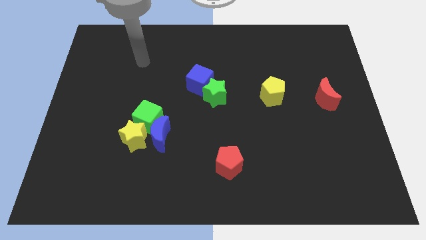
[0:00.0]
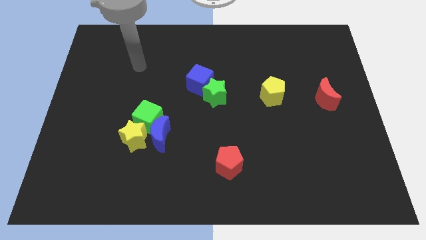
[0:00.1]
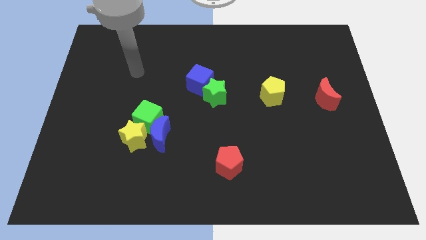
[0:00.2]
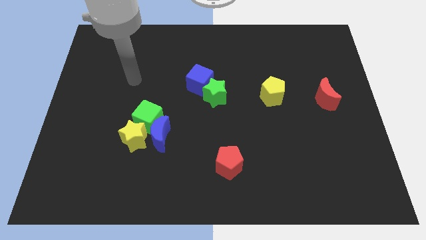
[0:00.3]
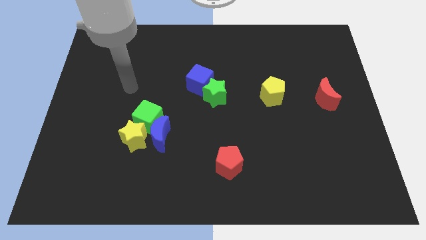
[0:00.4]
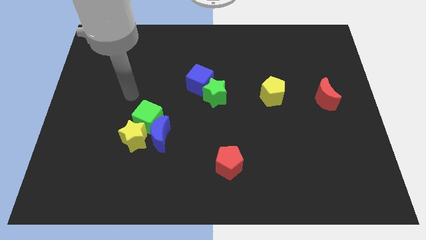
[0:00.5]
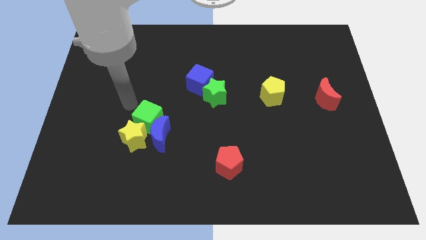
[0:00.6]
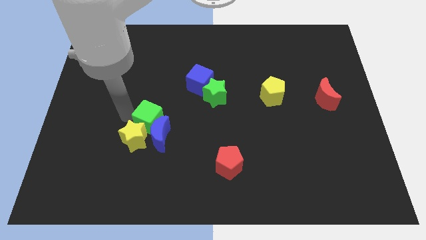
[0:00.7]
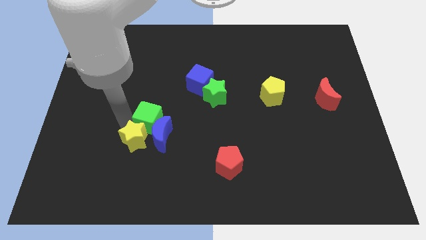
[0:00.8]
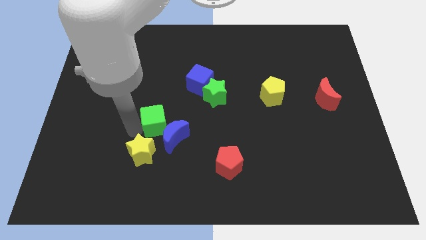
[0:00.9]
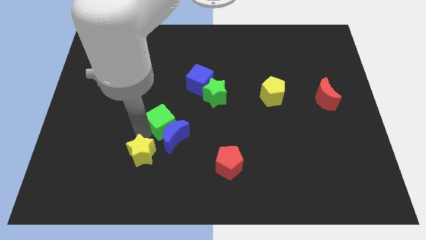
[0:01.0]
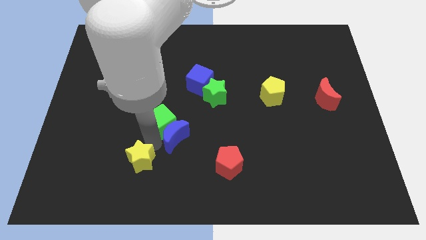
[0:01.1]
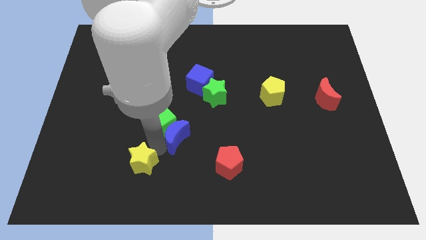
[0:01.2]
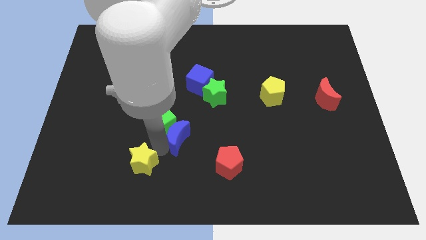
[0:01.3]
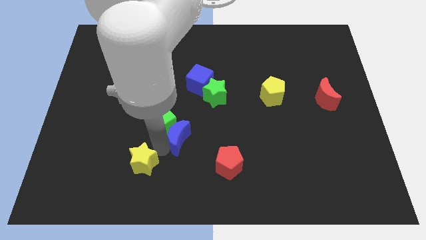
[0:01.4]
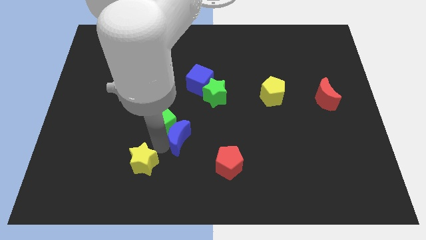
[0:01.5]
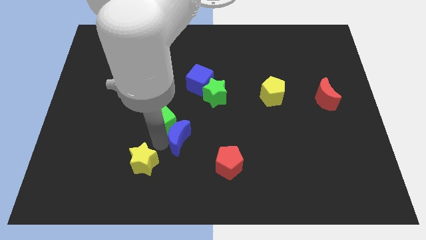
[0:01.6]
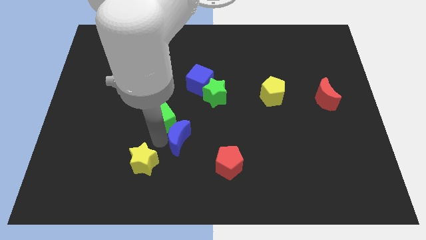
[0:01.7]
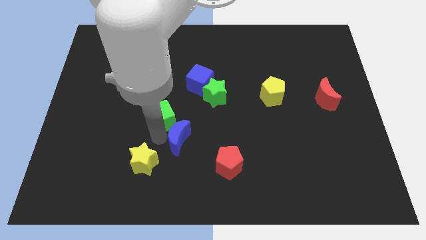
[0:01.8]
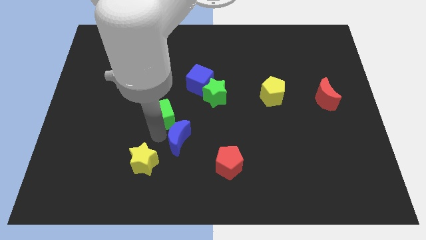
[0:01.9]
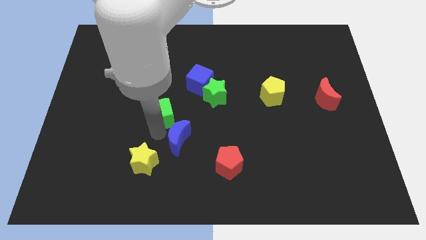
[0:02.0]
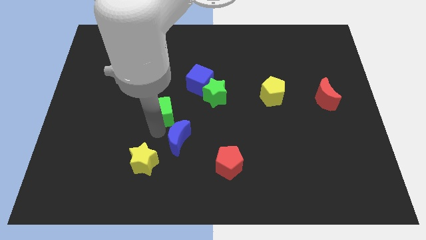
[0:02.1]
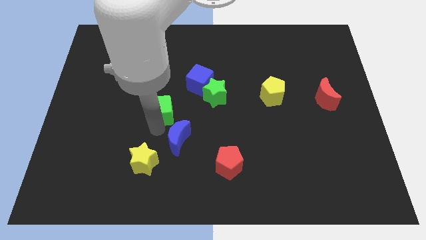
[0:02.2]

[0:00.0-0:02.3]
move the green cube away from the blue moon and yellow star

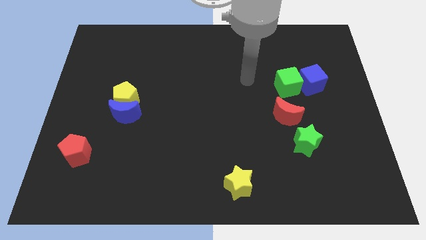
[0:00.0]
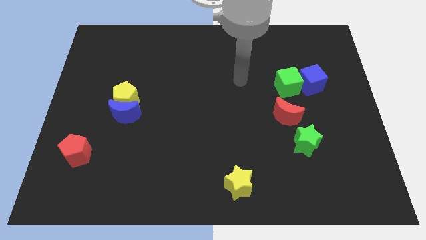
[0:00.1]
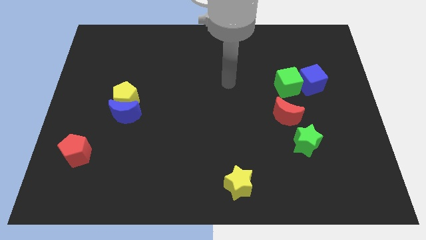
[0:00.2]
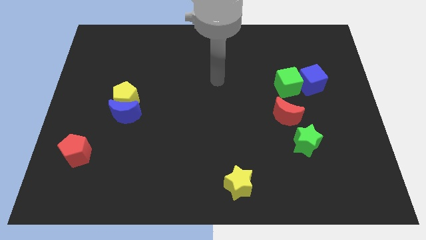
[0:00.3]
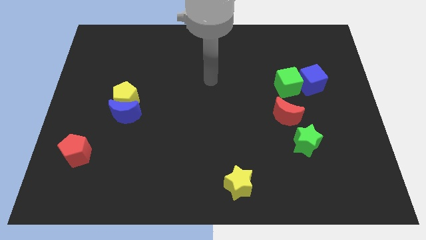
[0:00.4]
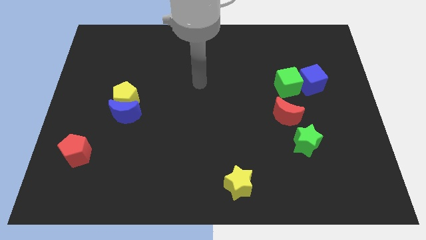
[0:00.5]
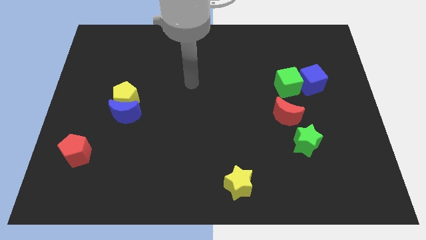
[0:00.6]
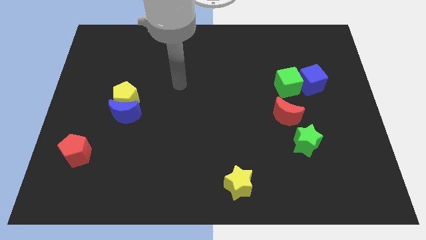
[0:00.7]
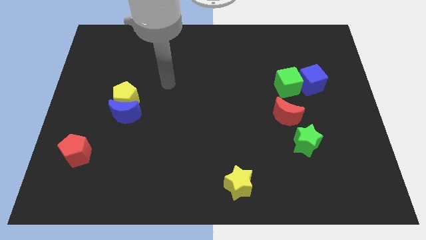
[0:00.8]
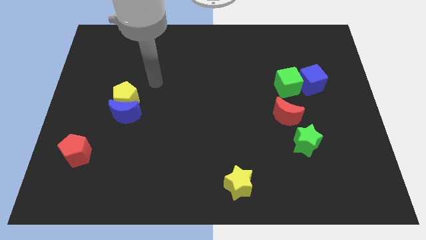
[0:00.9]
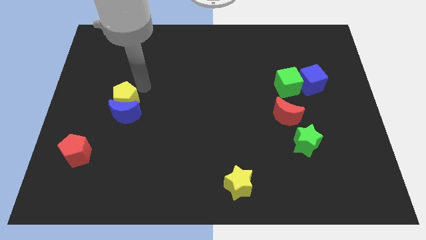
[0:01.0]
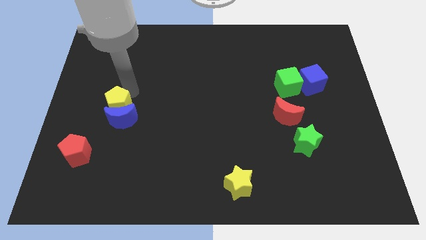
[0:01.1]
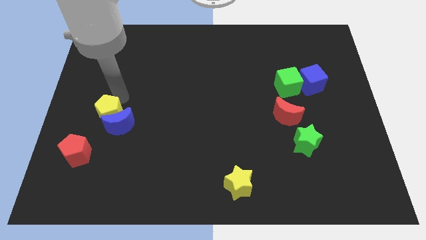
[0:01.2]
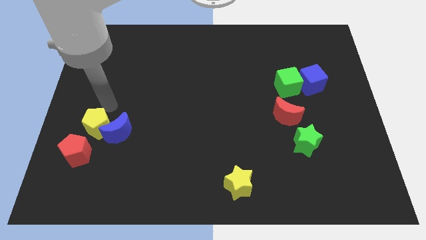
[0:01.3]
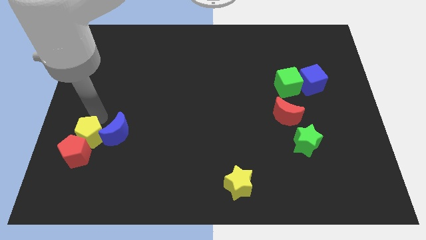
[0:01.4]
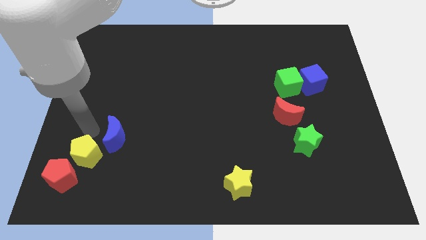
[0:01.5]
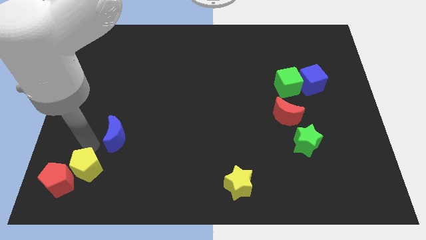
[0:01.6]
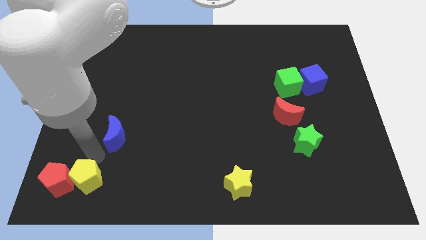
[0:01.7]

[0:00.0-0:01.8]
move the blue moon away from the yellow pentagon

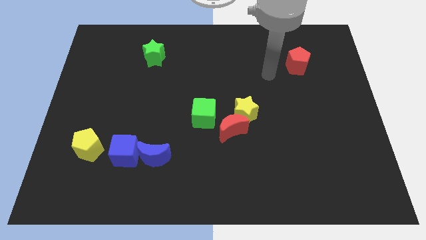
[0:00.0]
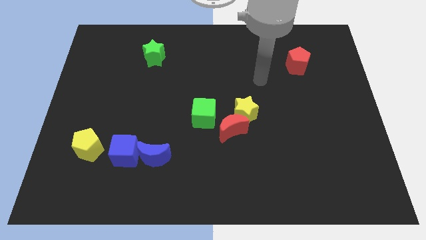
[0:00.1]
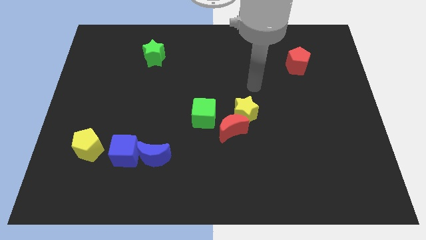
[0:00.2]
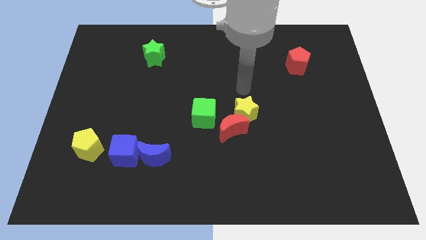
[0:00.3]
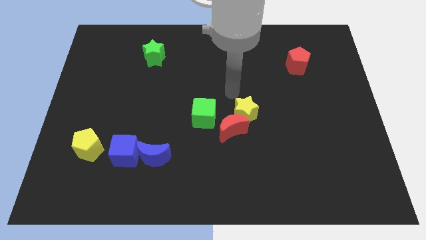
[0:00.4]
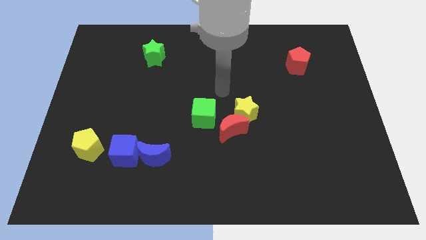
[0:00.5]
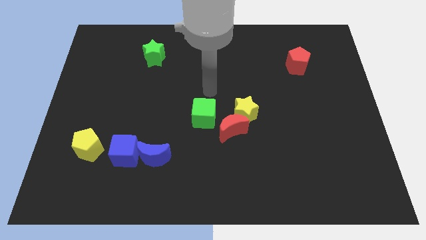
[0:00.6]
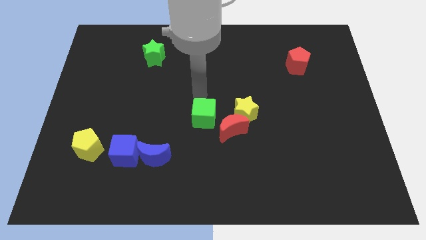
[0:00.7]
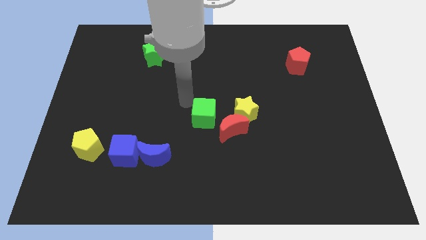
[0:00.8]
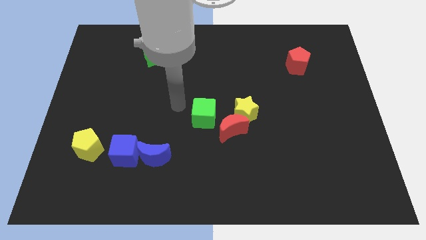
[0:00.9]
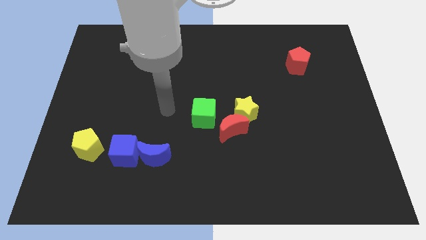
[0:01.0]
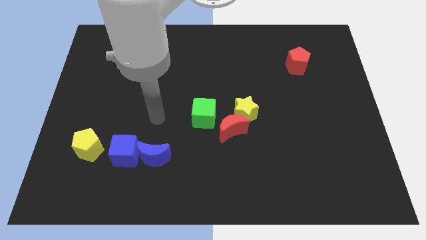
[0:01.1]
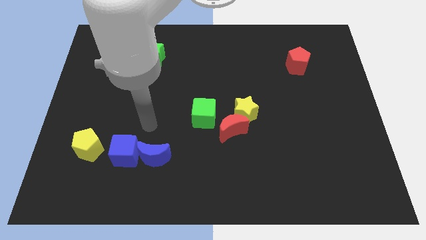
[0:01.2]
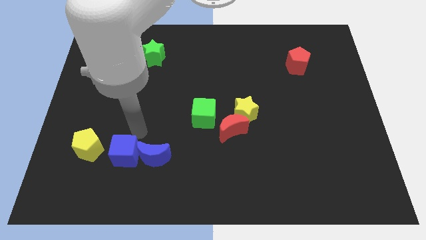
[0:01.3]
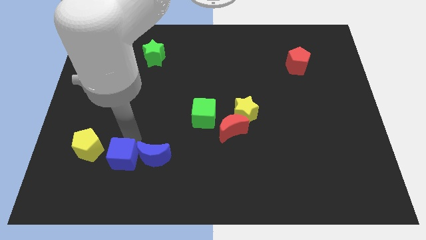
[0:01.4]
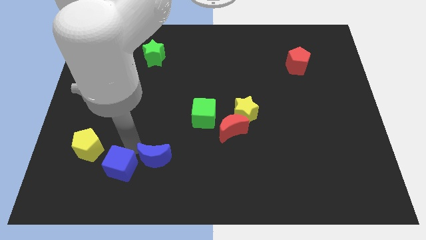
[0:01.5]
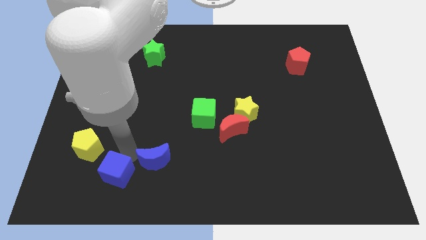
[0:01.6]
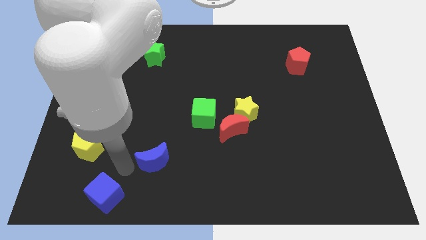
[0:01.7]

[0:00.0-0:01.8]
move the blue moon away from the blue cube

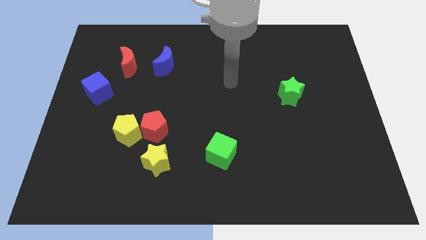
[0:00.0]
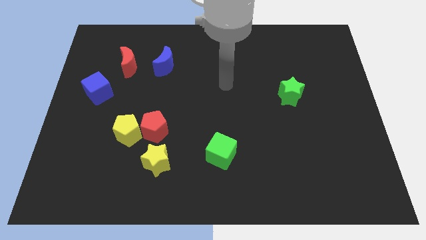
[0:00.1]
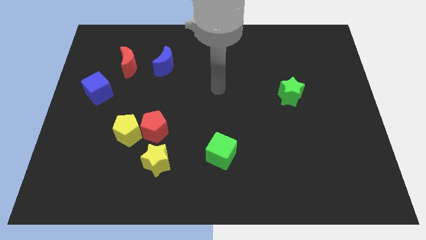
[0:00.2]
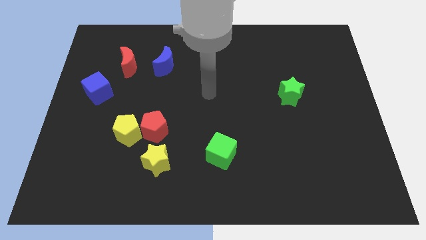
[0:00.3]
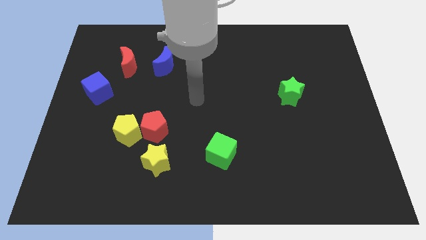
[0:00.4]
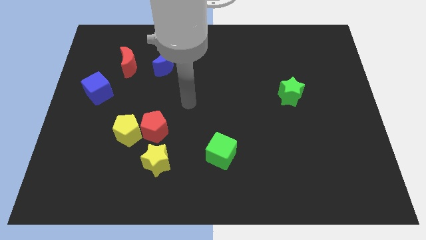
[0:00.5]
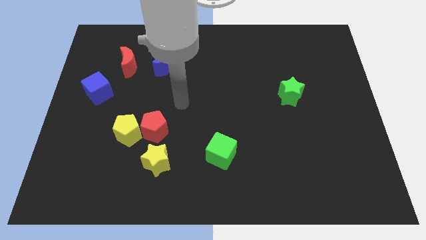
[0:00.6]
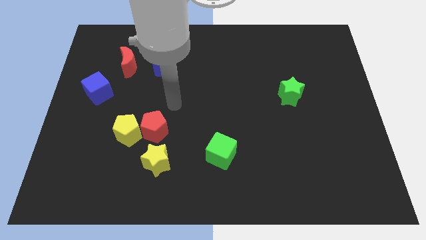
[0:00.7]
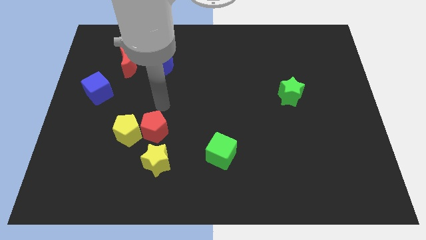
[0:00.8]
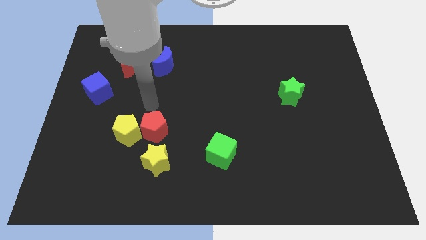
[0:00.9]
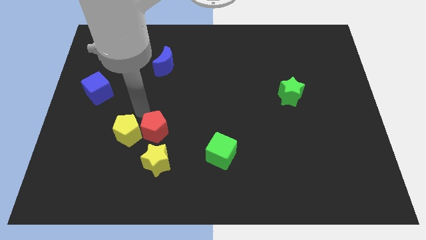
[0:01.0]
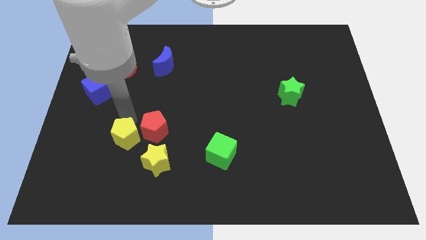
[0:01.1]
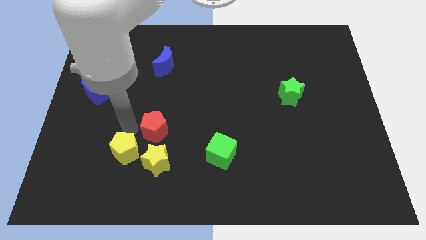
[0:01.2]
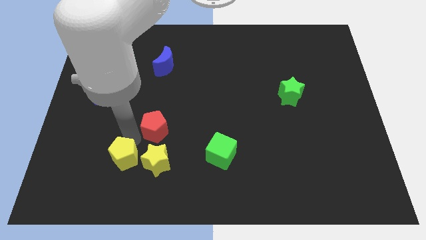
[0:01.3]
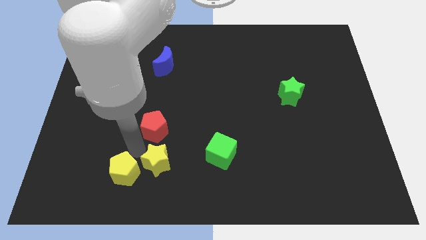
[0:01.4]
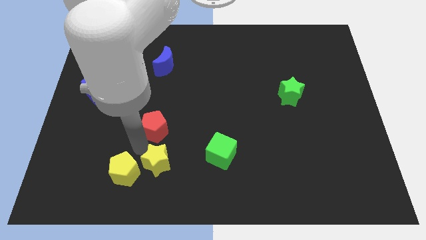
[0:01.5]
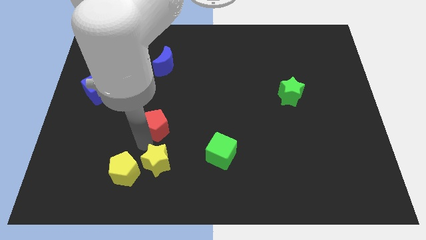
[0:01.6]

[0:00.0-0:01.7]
separate the red pentagon from the yellow pentagon and yellow star

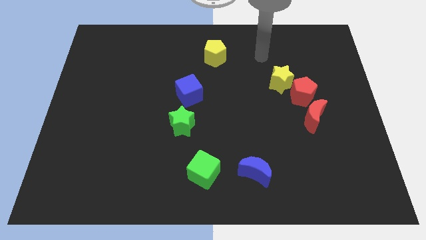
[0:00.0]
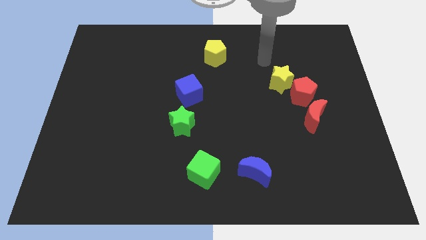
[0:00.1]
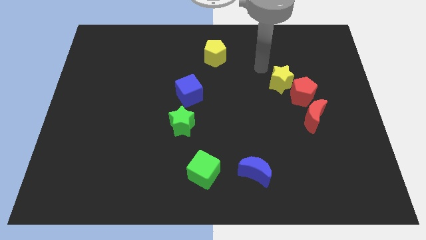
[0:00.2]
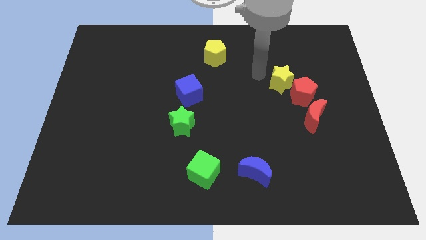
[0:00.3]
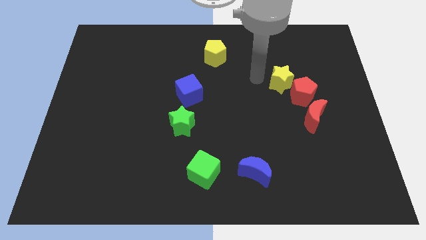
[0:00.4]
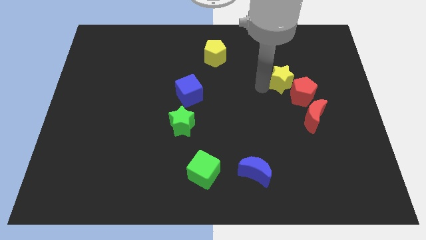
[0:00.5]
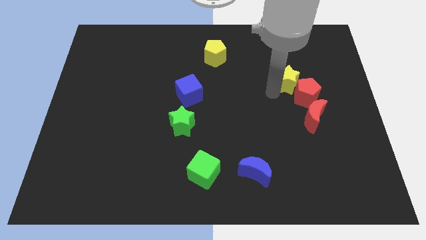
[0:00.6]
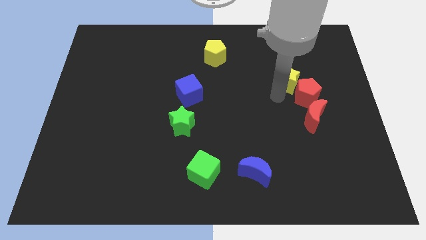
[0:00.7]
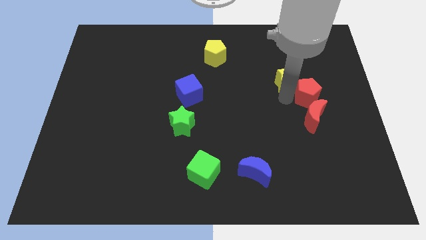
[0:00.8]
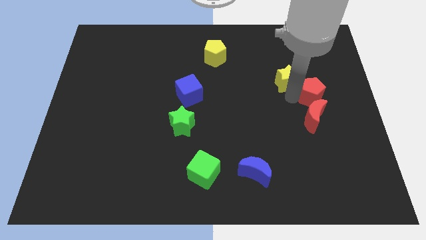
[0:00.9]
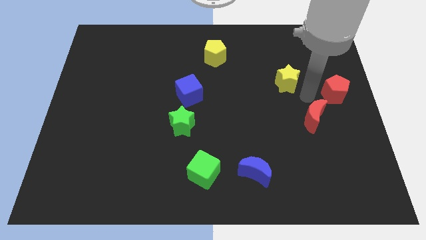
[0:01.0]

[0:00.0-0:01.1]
separate the yellow star from the red pentagon

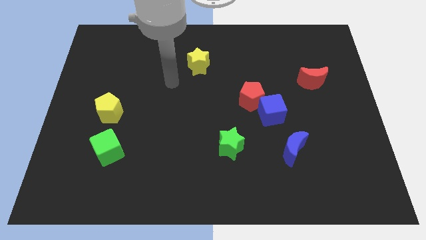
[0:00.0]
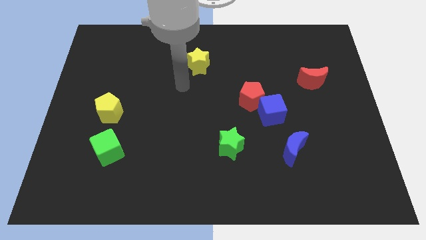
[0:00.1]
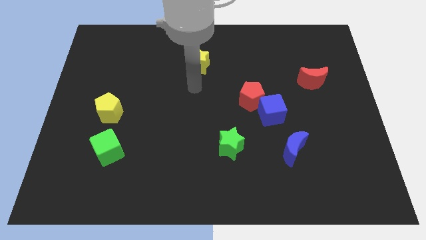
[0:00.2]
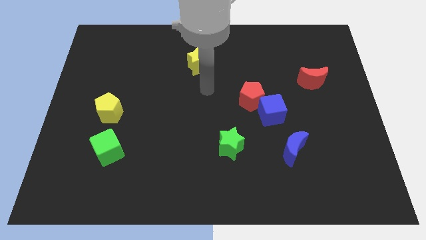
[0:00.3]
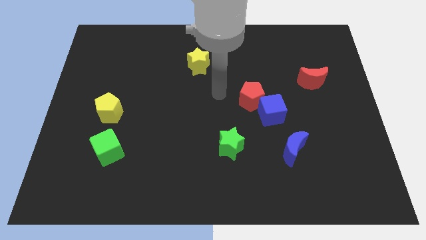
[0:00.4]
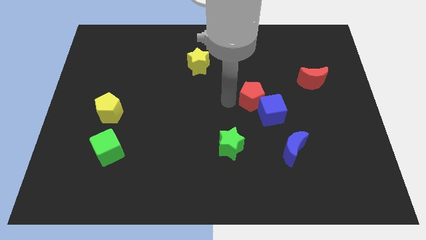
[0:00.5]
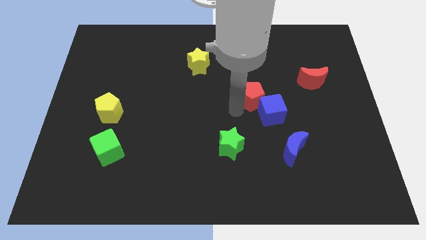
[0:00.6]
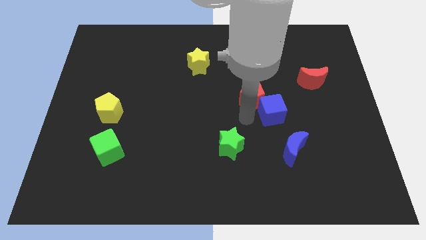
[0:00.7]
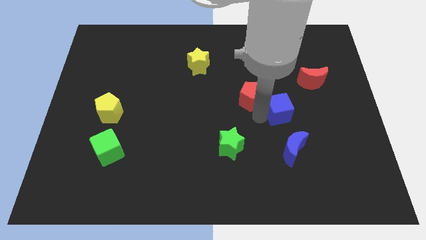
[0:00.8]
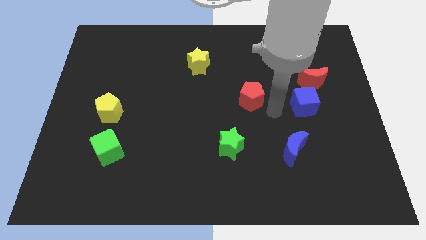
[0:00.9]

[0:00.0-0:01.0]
pull the red pentagon apart from the blue cube
